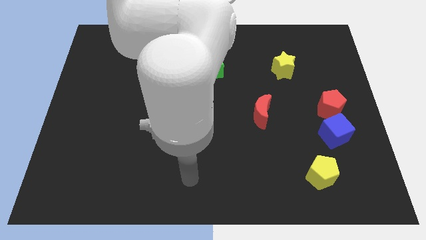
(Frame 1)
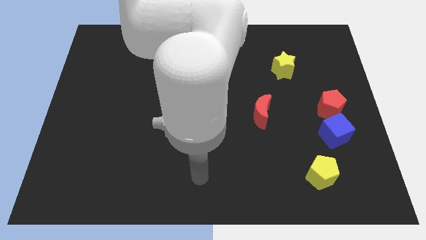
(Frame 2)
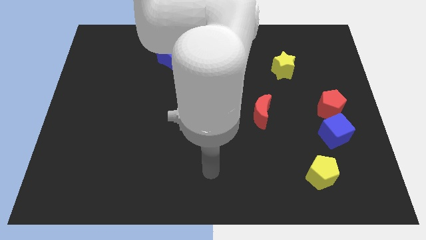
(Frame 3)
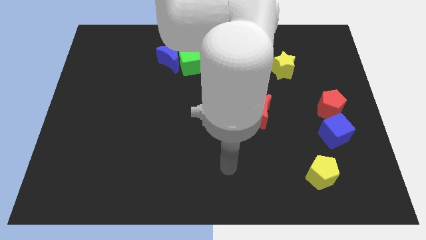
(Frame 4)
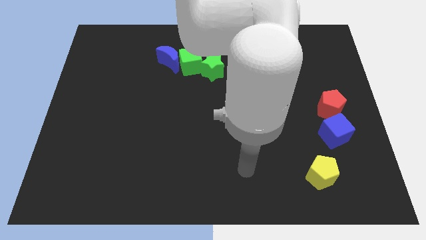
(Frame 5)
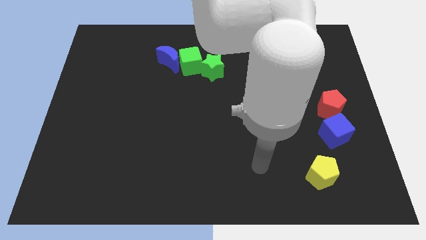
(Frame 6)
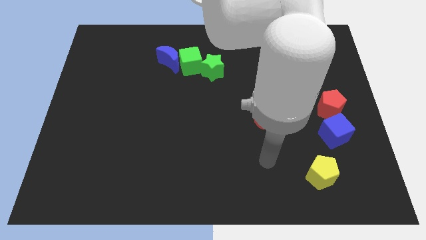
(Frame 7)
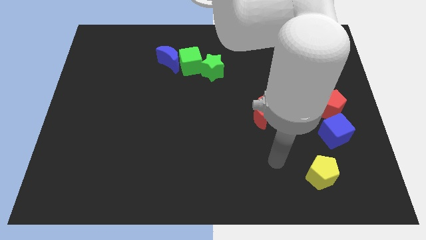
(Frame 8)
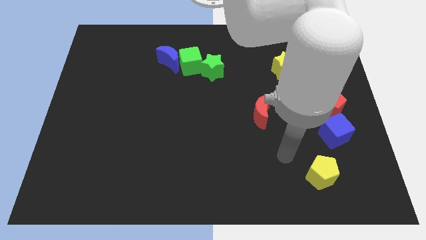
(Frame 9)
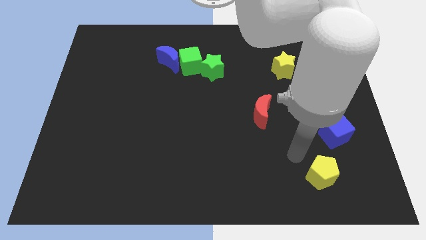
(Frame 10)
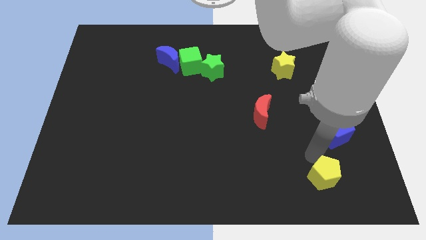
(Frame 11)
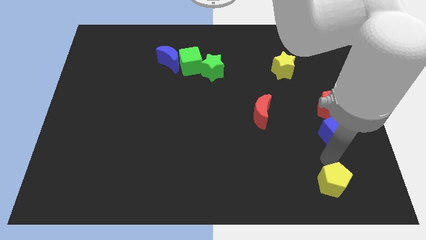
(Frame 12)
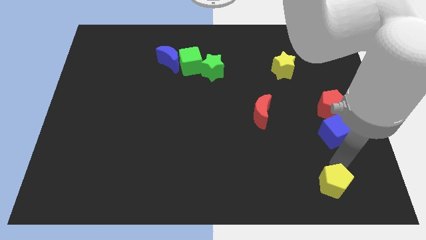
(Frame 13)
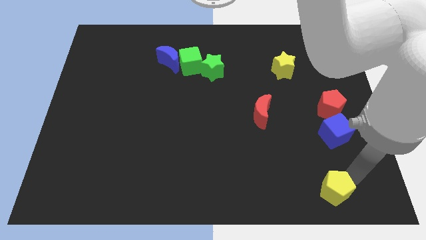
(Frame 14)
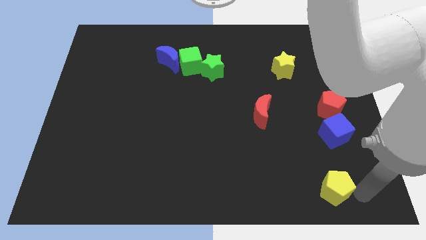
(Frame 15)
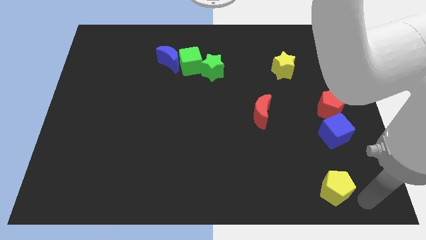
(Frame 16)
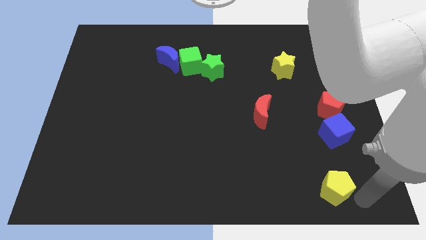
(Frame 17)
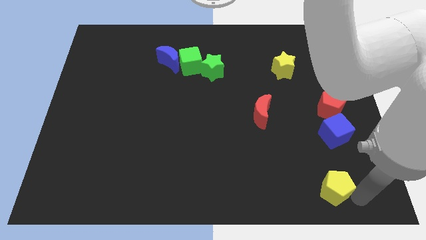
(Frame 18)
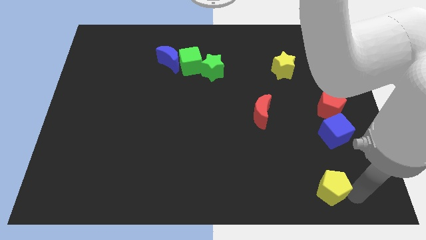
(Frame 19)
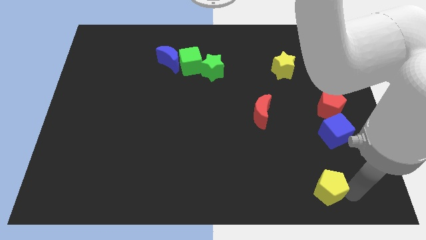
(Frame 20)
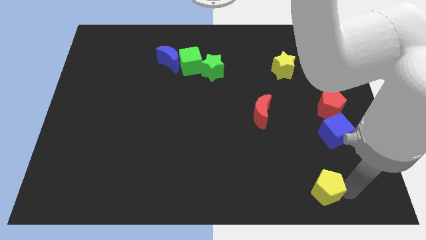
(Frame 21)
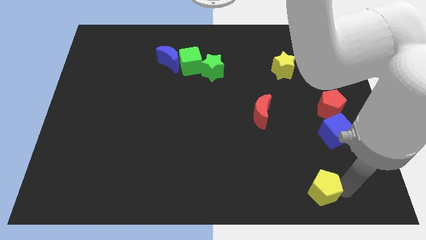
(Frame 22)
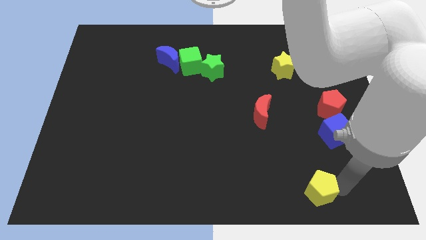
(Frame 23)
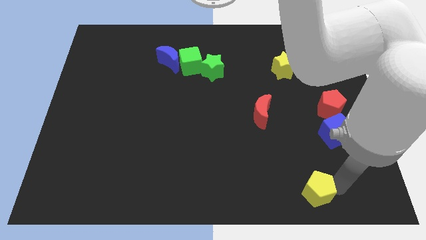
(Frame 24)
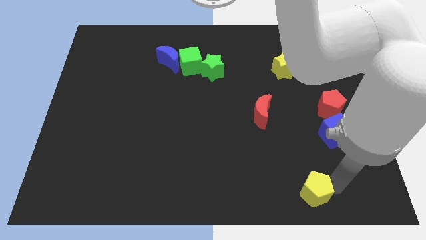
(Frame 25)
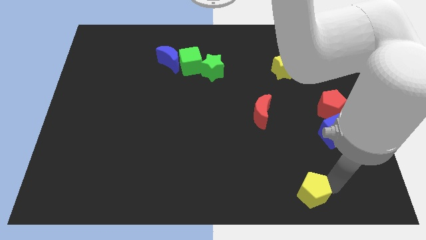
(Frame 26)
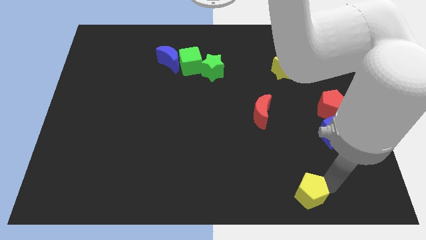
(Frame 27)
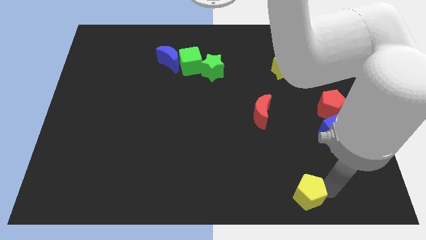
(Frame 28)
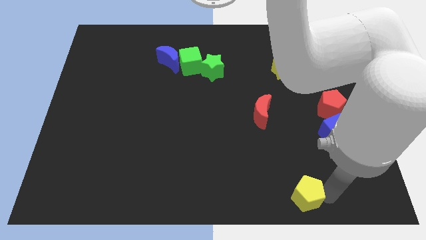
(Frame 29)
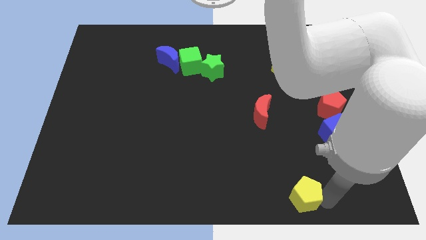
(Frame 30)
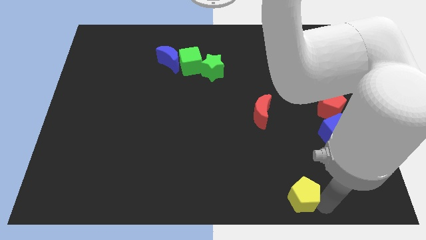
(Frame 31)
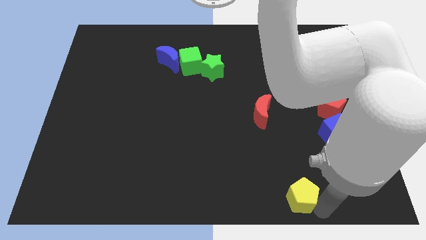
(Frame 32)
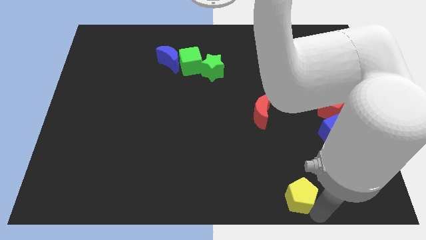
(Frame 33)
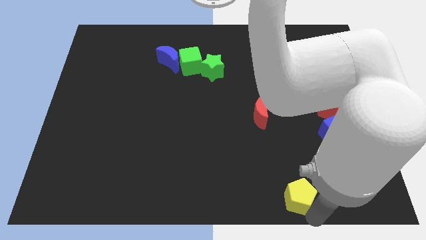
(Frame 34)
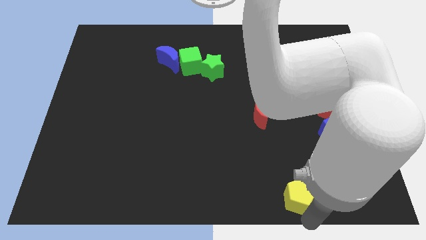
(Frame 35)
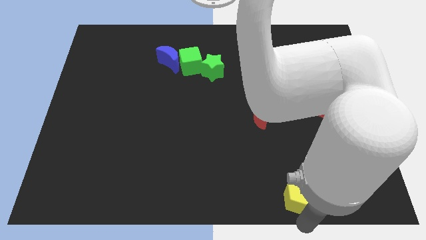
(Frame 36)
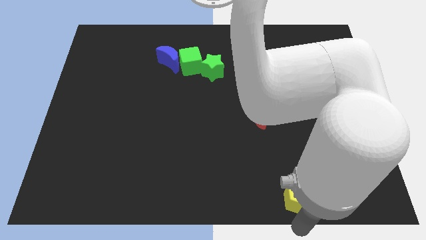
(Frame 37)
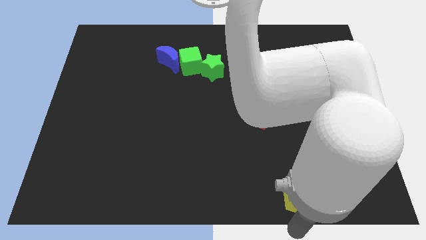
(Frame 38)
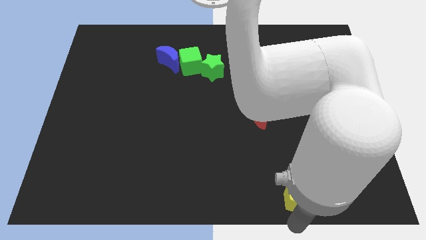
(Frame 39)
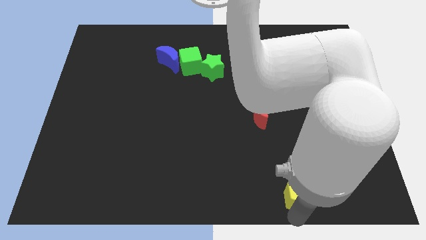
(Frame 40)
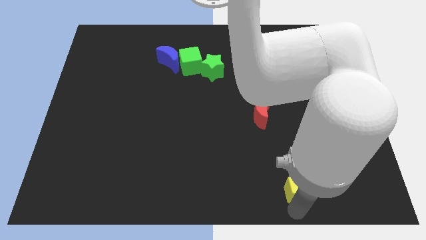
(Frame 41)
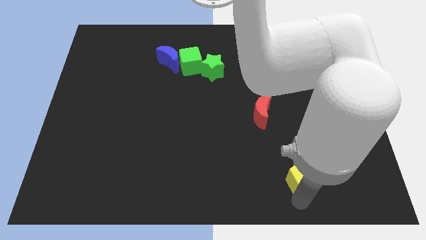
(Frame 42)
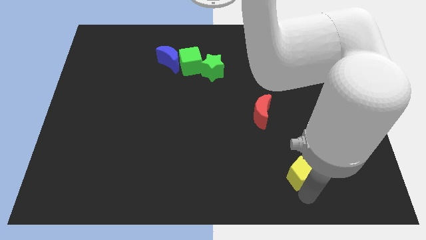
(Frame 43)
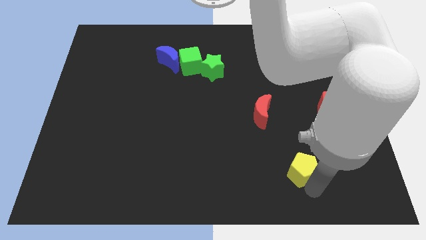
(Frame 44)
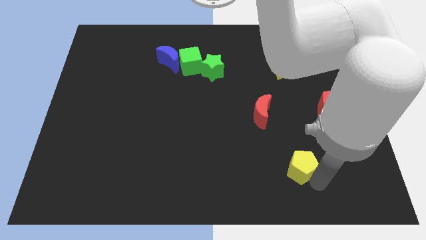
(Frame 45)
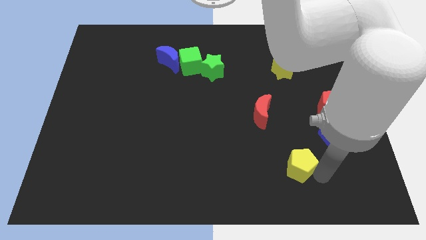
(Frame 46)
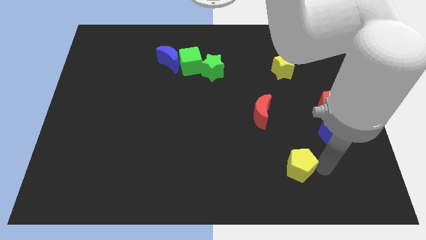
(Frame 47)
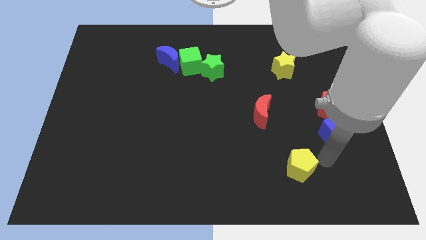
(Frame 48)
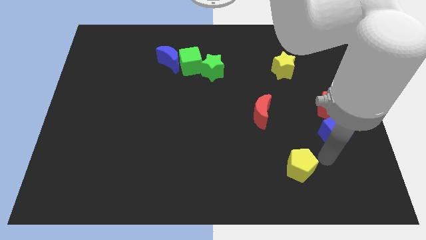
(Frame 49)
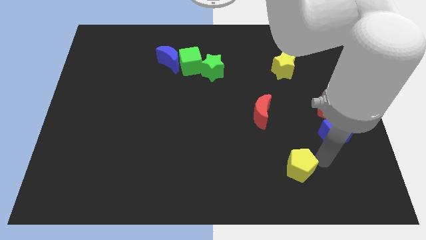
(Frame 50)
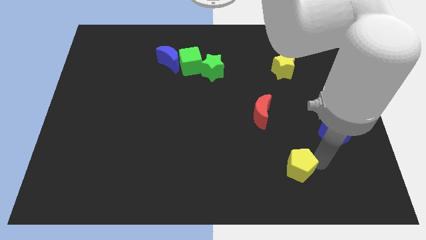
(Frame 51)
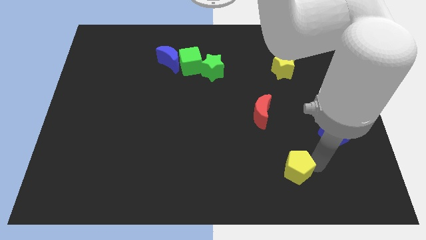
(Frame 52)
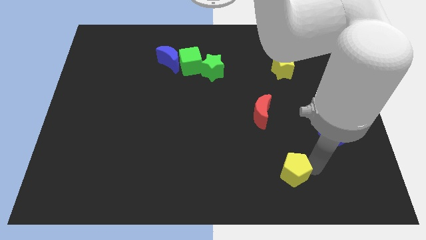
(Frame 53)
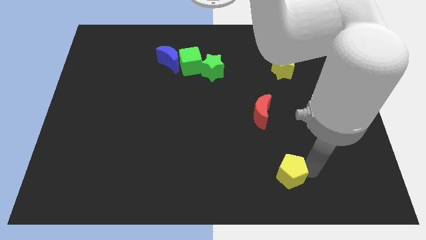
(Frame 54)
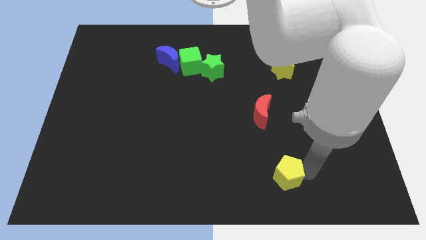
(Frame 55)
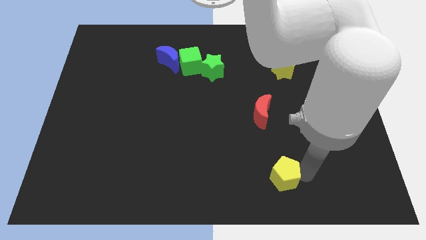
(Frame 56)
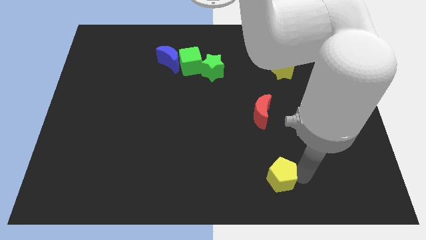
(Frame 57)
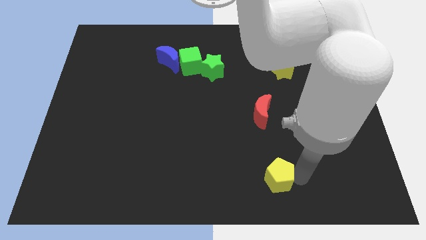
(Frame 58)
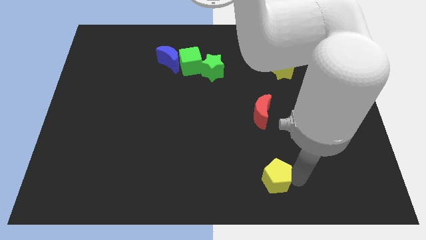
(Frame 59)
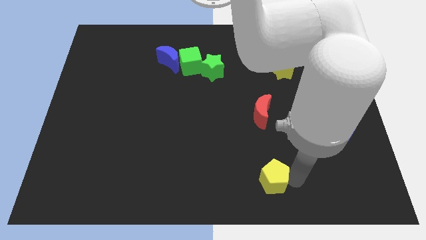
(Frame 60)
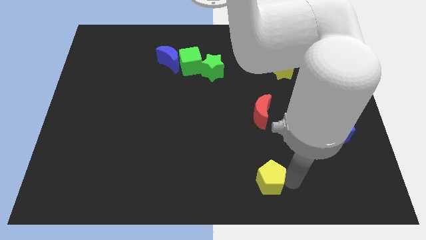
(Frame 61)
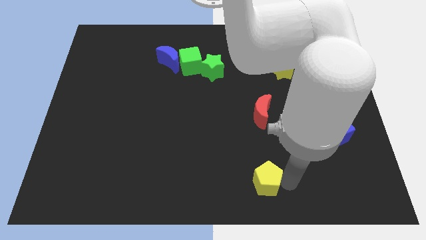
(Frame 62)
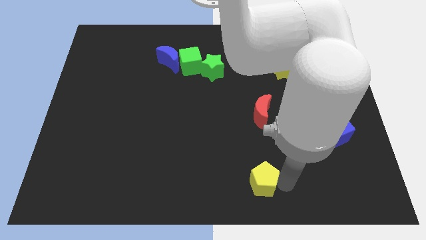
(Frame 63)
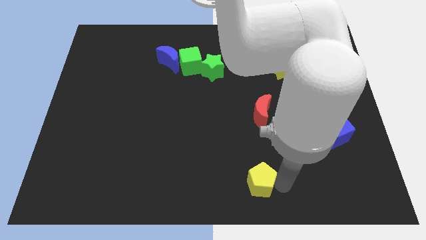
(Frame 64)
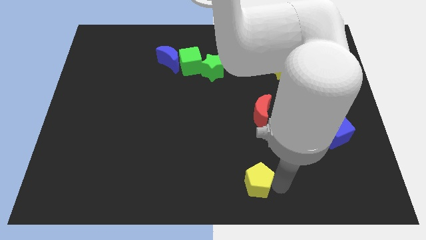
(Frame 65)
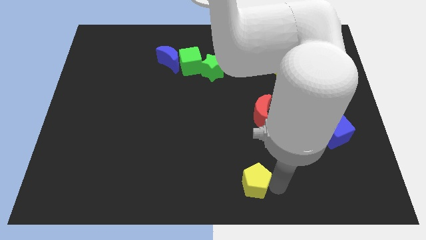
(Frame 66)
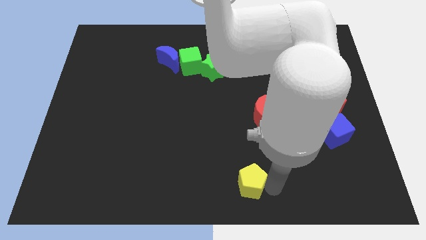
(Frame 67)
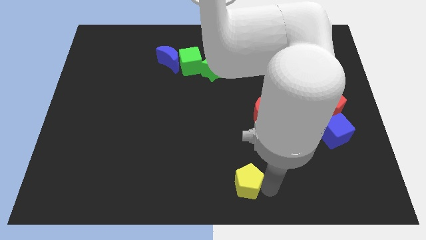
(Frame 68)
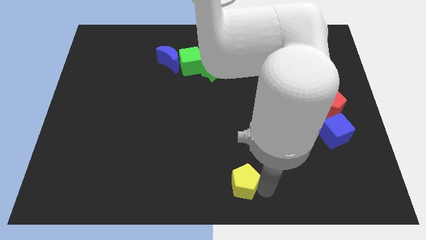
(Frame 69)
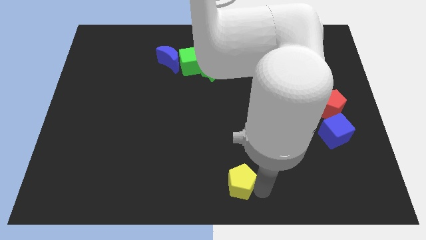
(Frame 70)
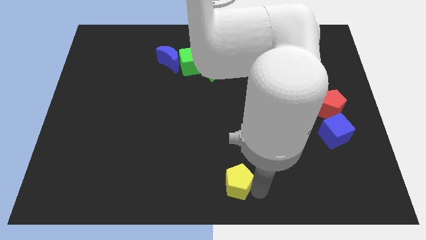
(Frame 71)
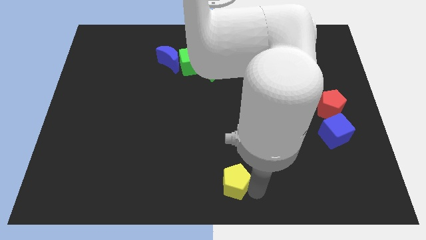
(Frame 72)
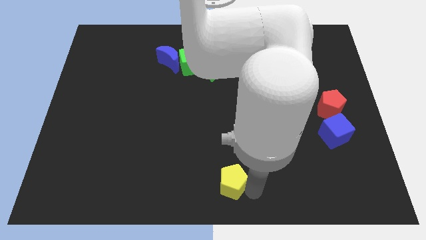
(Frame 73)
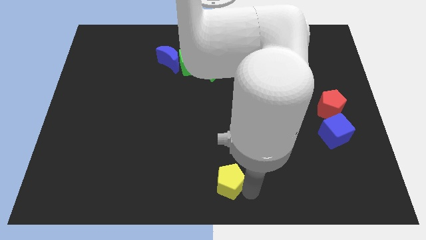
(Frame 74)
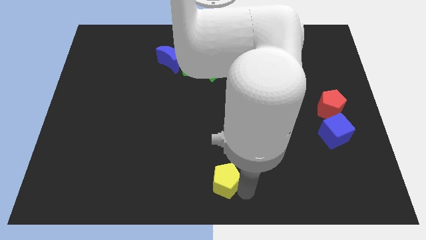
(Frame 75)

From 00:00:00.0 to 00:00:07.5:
slide the yellow pentagon left

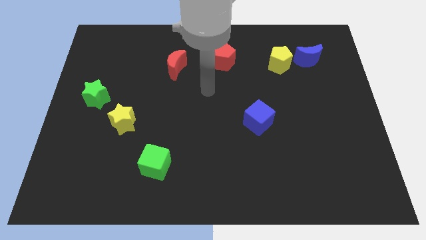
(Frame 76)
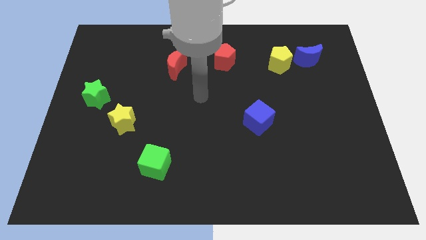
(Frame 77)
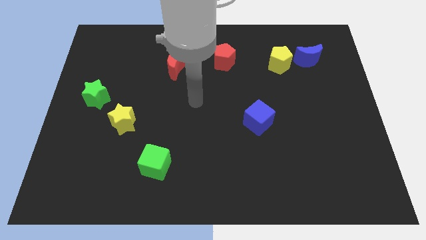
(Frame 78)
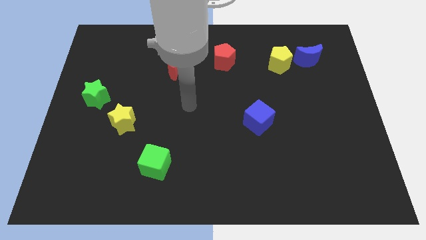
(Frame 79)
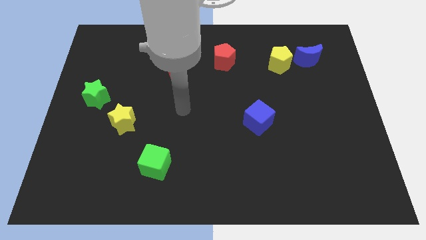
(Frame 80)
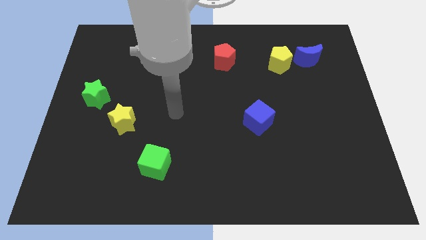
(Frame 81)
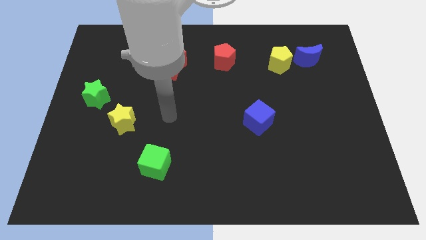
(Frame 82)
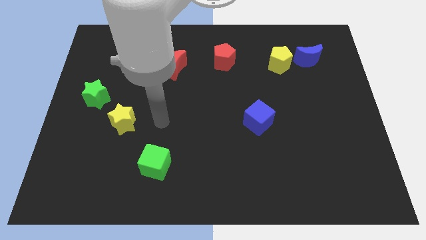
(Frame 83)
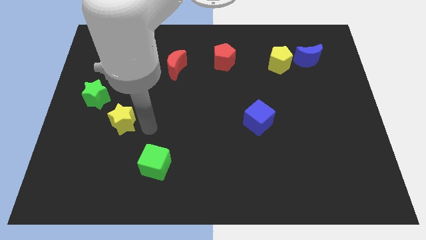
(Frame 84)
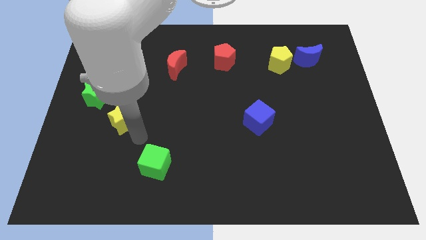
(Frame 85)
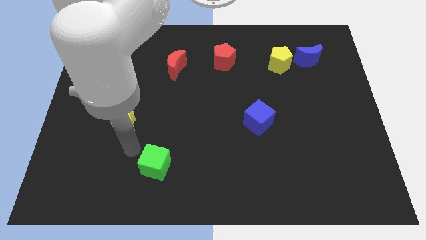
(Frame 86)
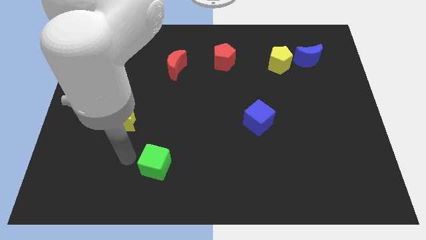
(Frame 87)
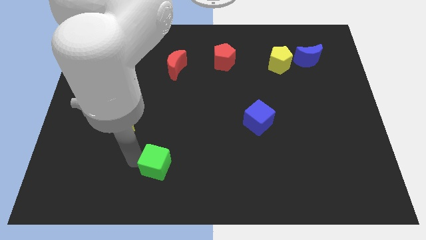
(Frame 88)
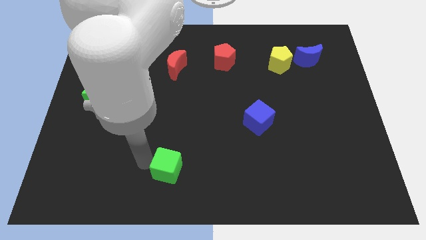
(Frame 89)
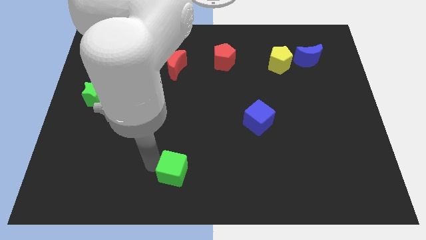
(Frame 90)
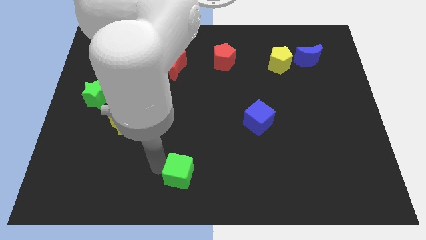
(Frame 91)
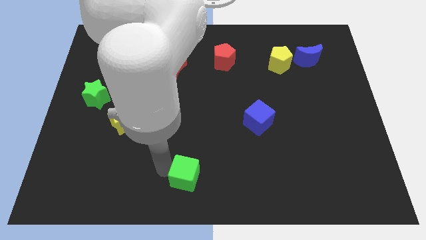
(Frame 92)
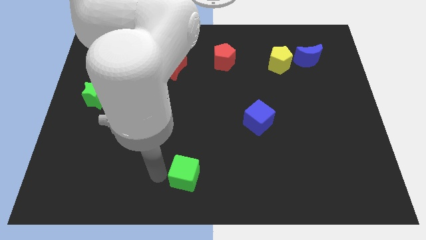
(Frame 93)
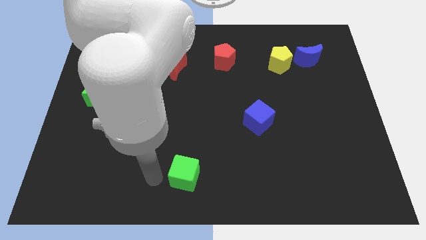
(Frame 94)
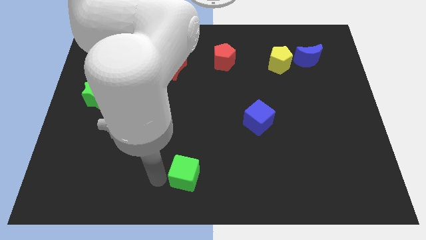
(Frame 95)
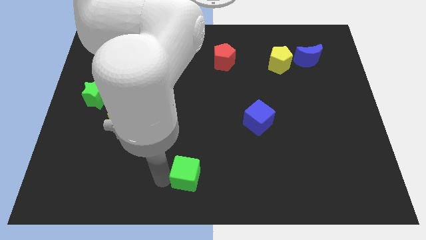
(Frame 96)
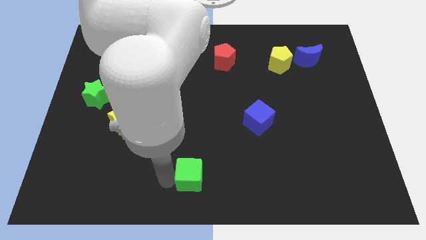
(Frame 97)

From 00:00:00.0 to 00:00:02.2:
push the green cube a bit right
